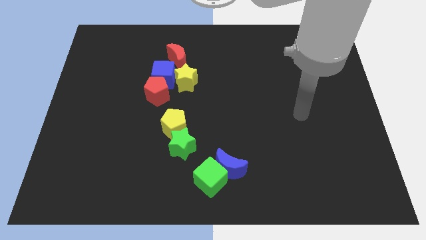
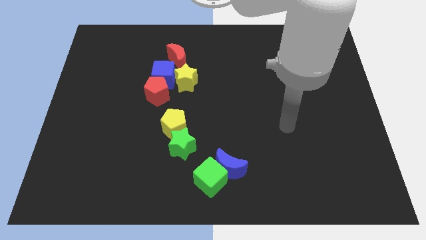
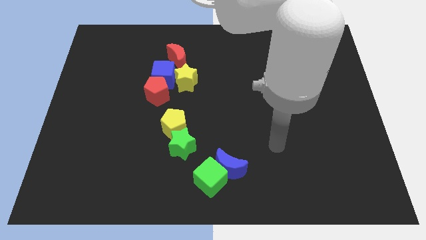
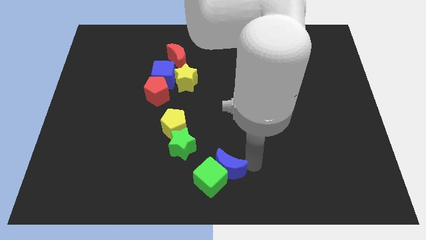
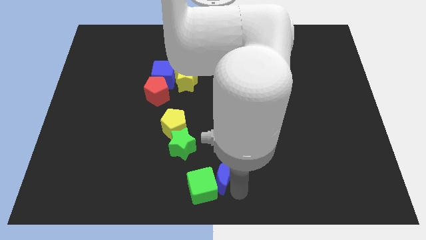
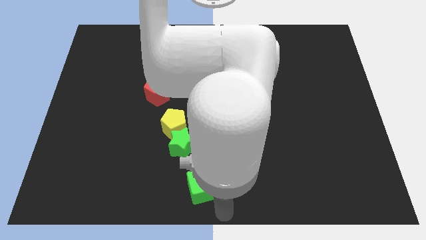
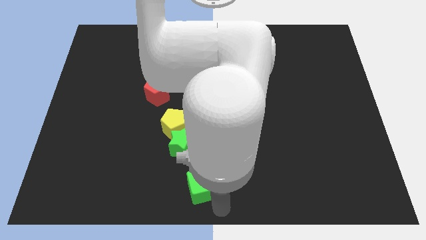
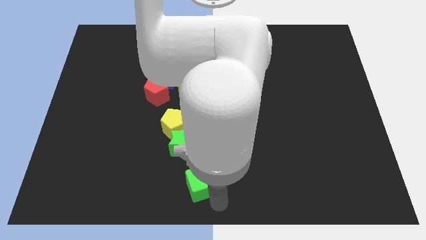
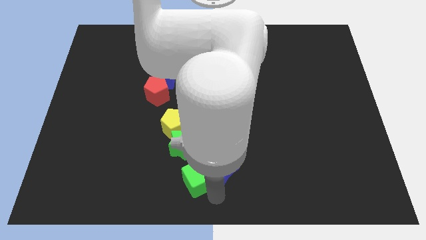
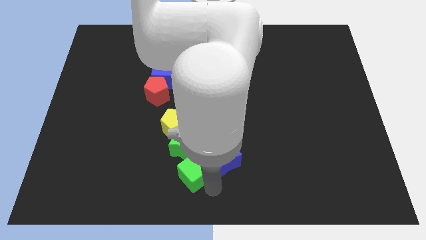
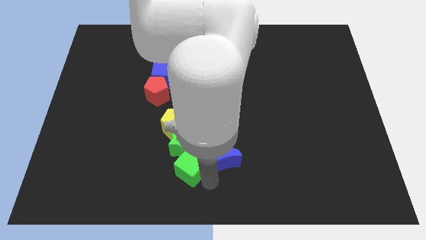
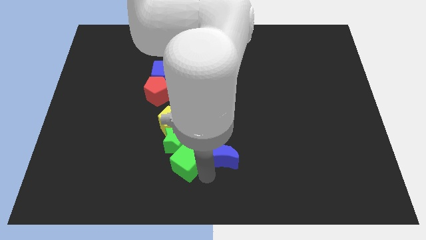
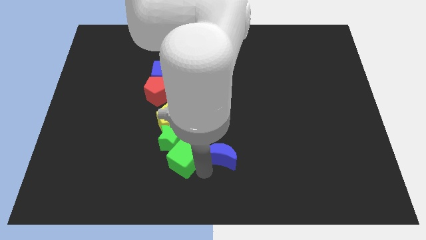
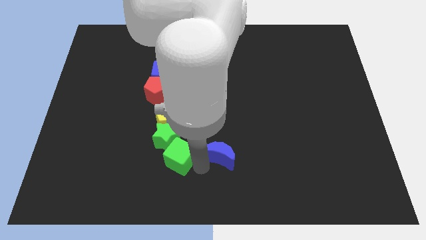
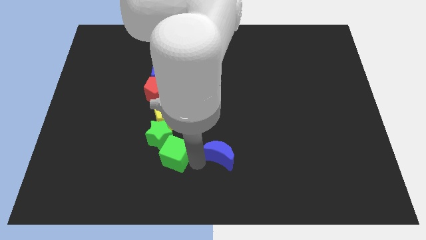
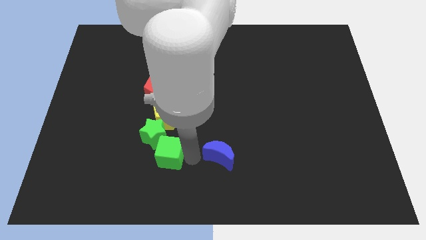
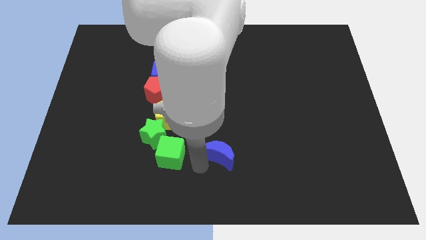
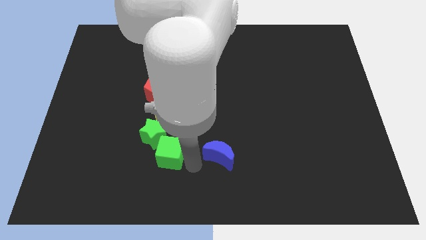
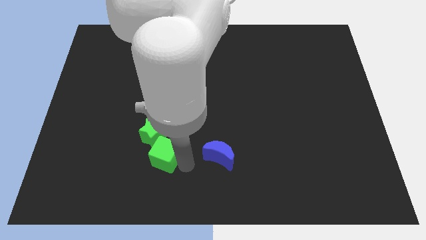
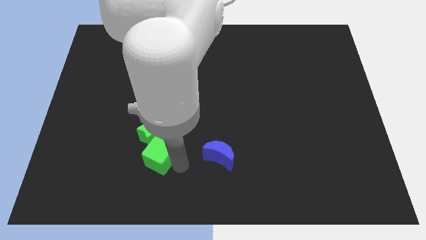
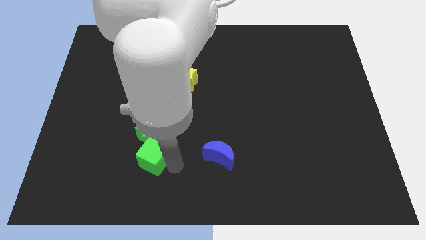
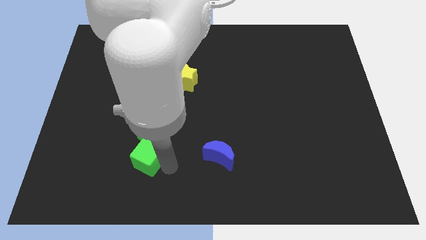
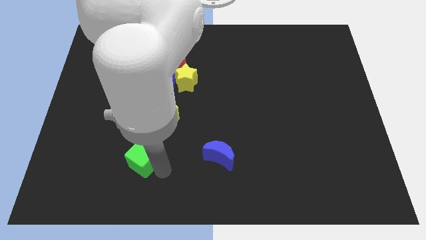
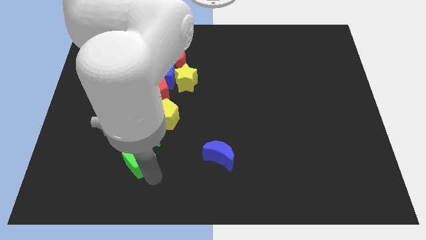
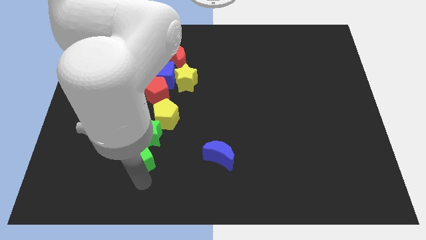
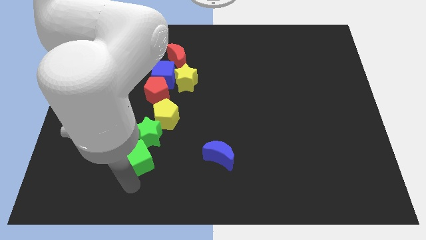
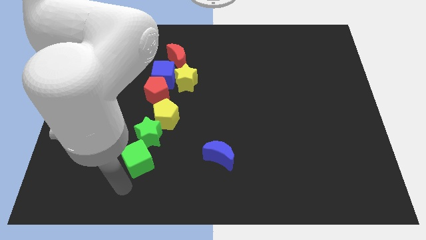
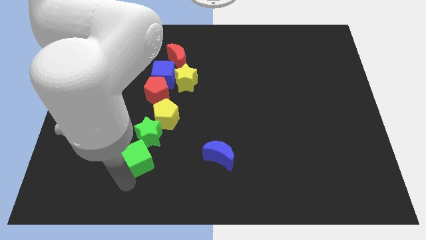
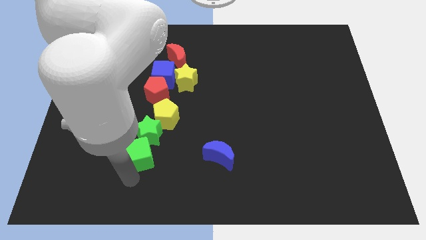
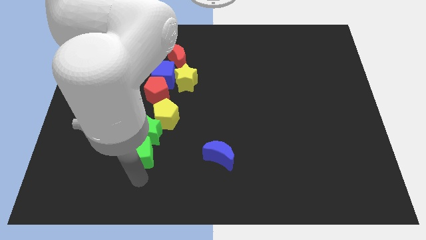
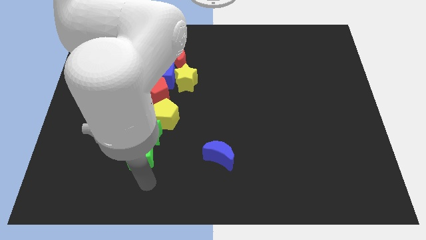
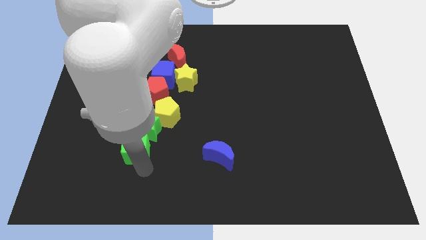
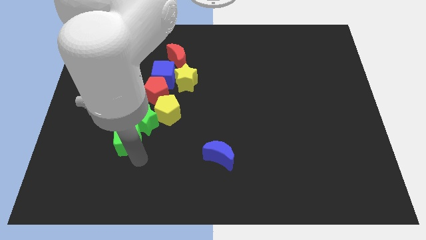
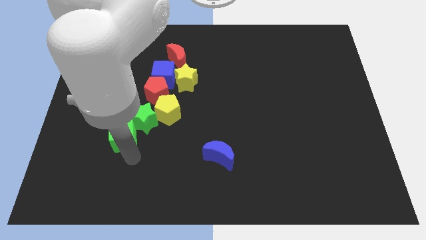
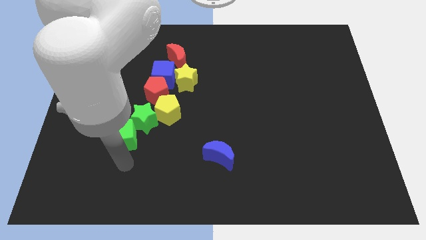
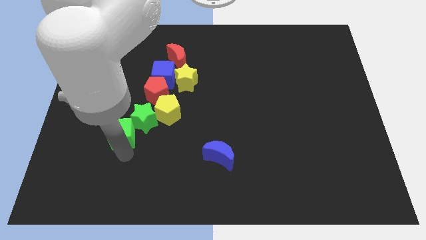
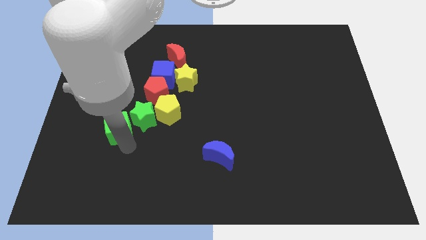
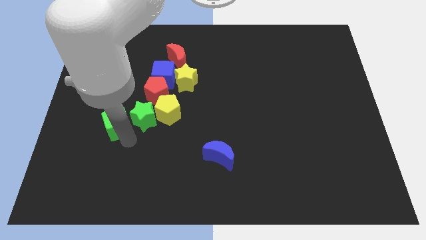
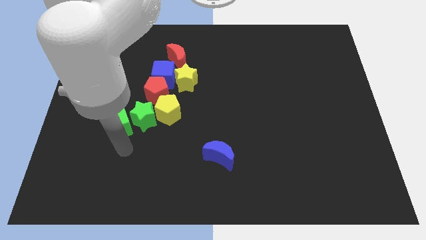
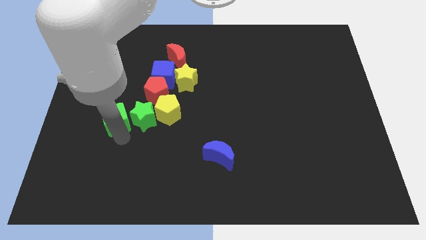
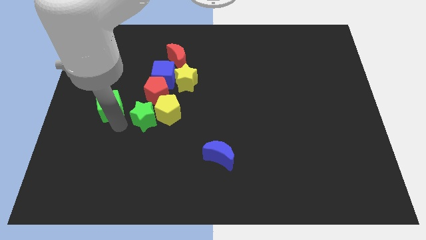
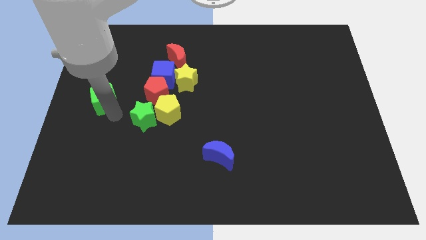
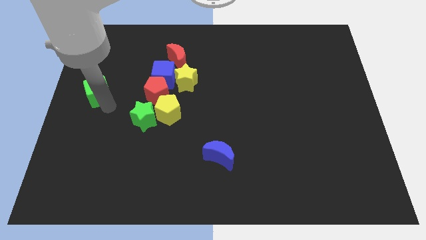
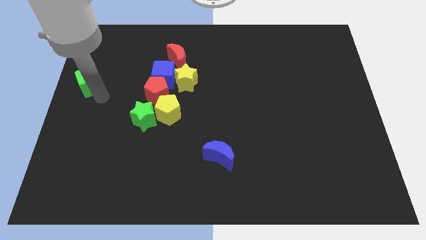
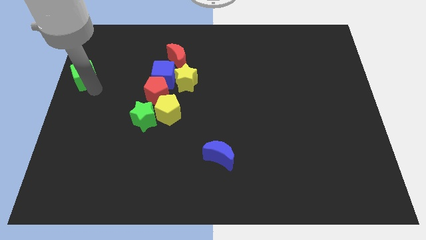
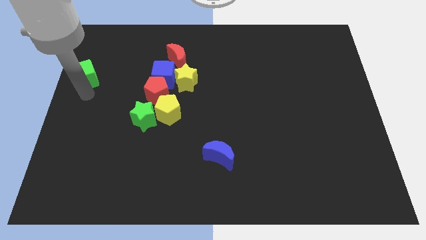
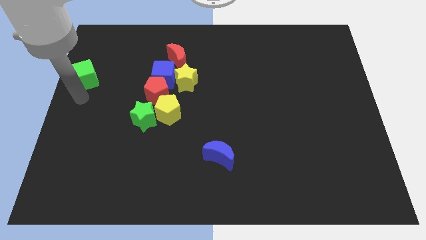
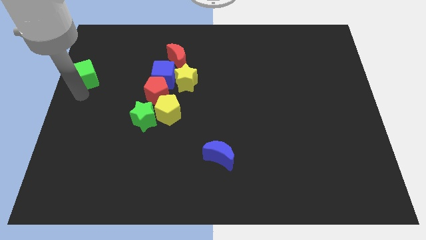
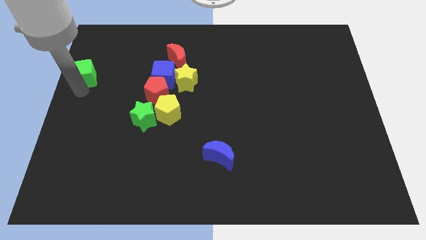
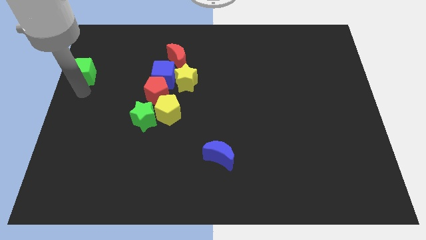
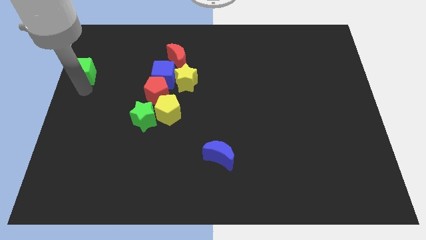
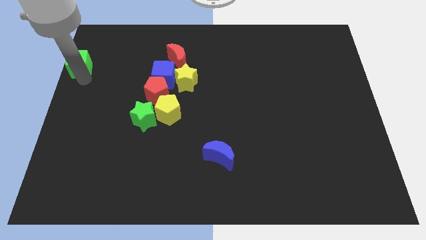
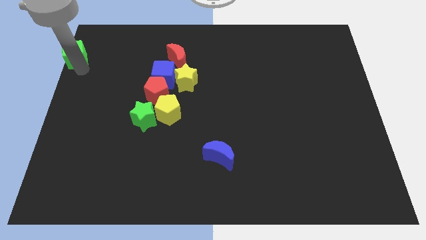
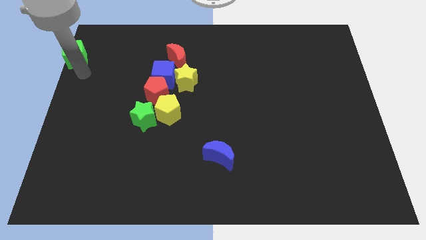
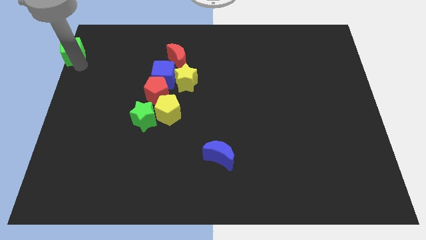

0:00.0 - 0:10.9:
move the green cube to the top left

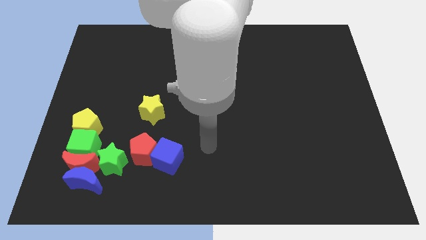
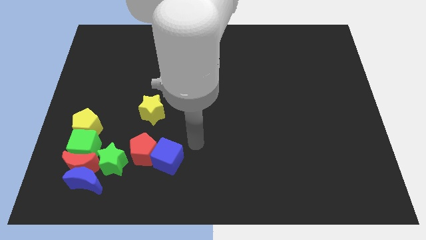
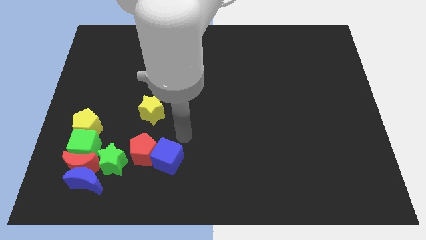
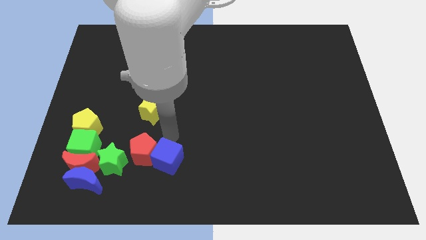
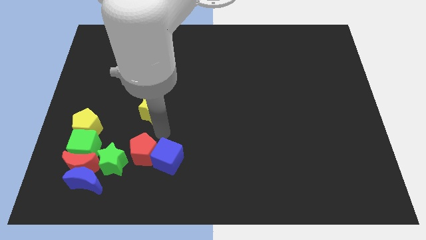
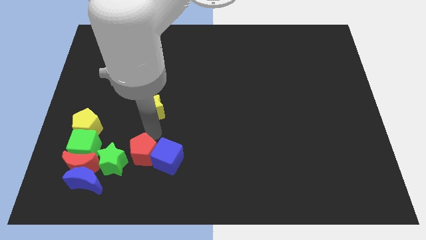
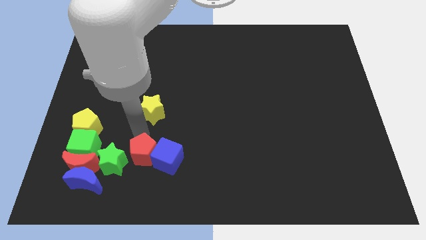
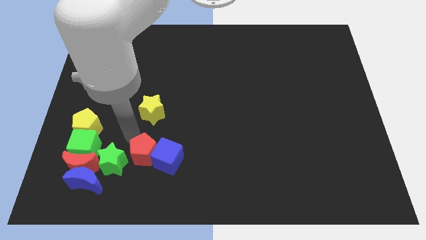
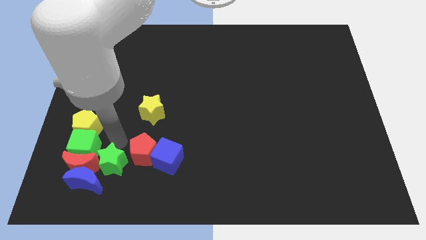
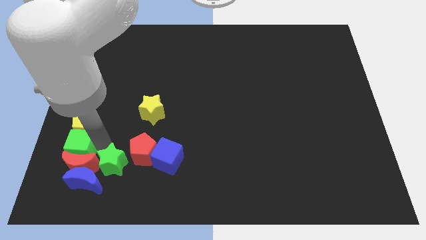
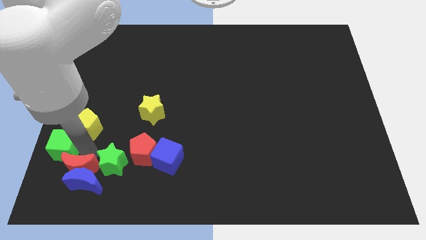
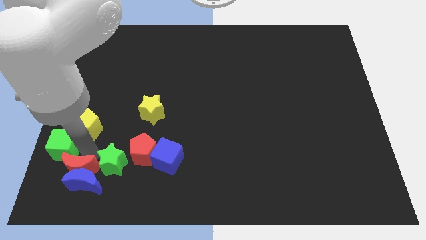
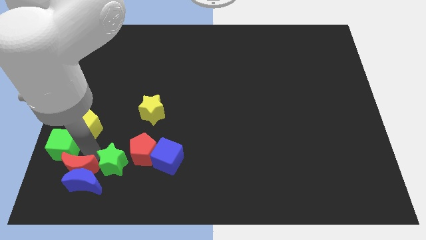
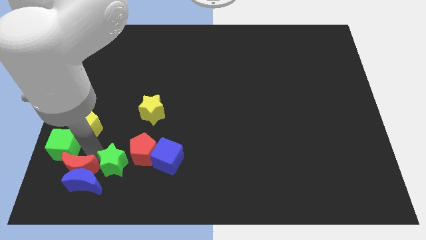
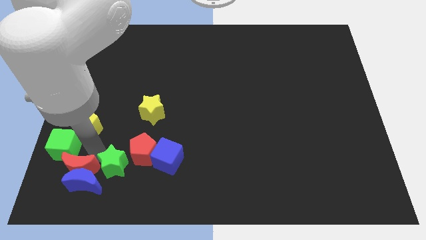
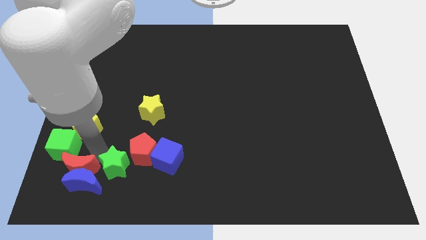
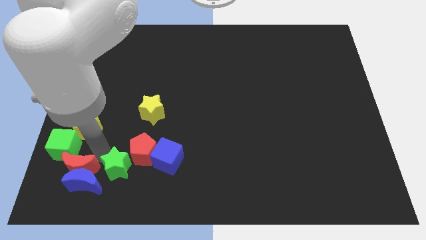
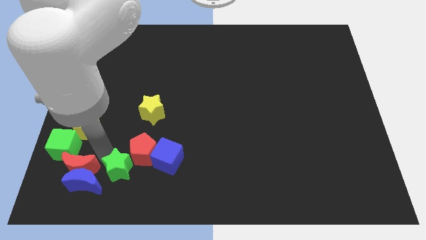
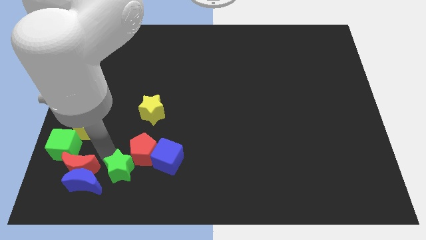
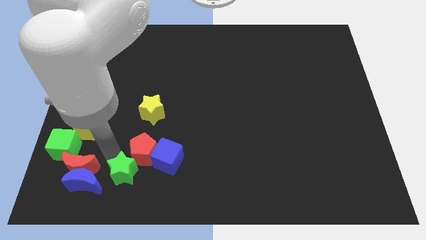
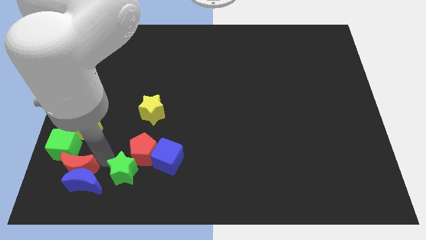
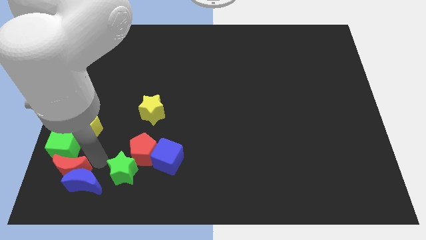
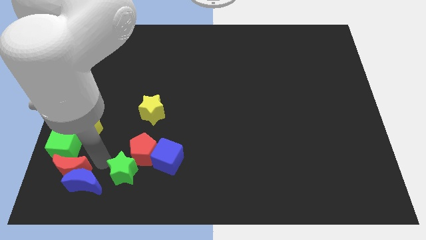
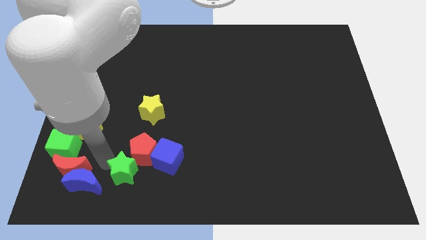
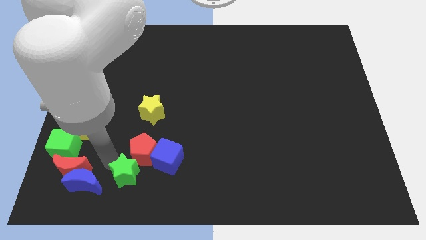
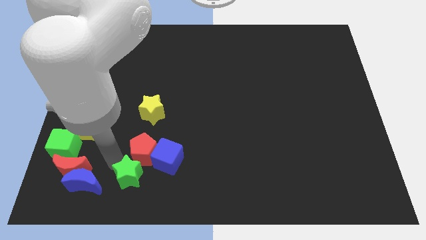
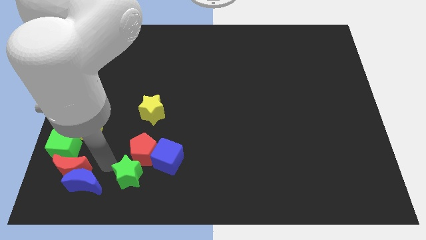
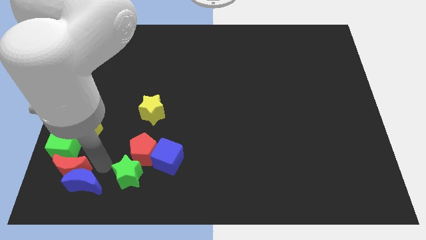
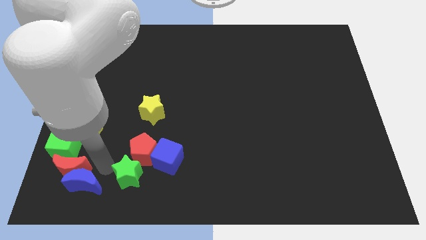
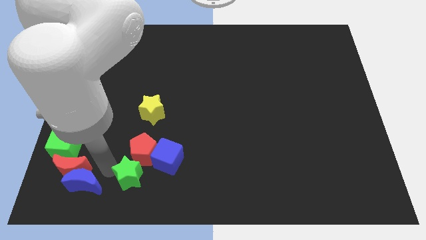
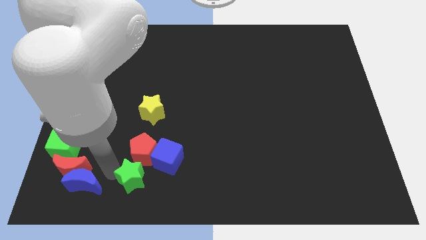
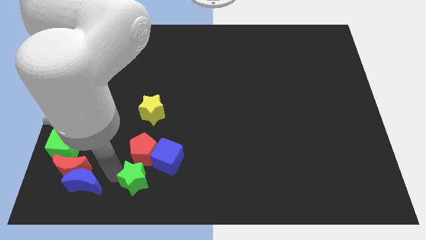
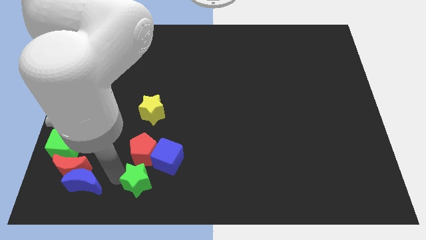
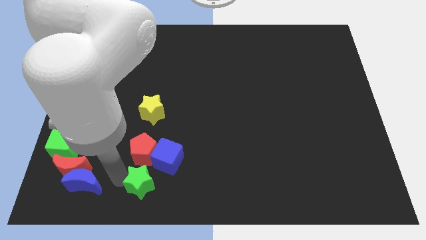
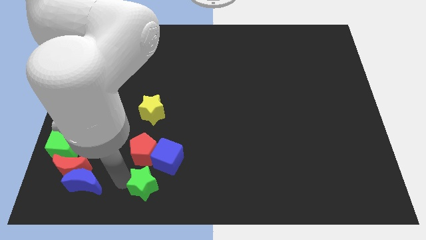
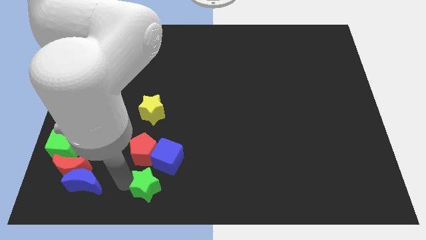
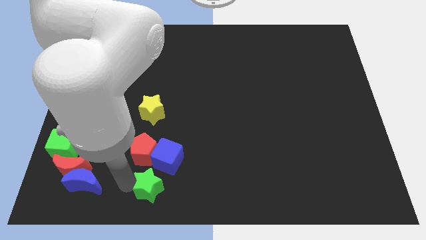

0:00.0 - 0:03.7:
put the green star to the bottom side
